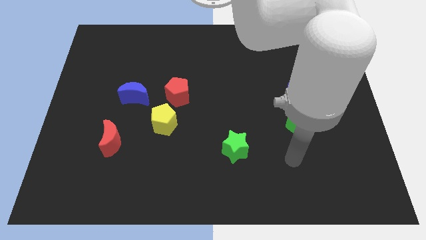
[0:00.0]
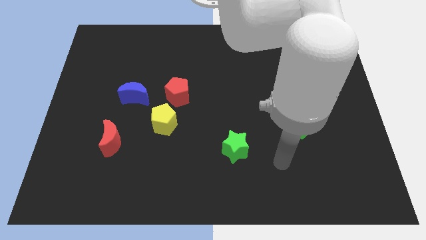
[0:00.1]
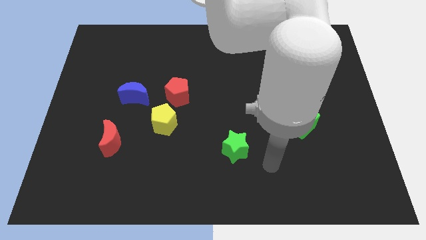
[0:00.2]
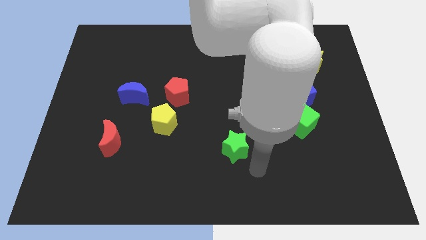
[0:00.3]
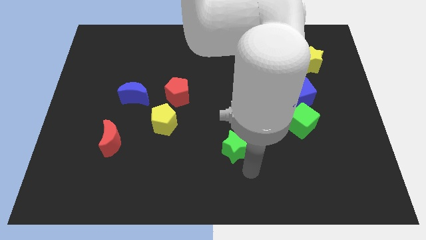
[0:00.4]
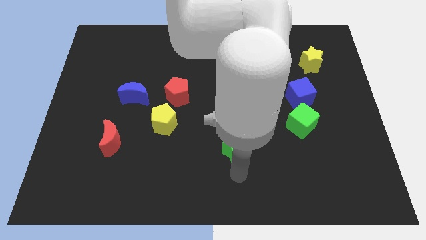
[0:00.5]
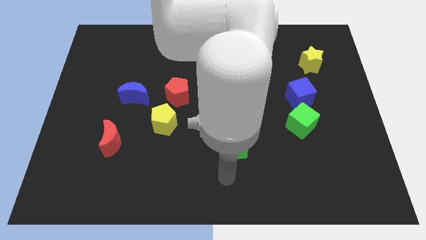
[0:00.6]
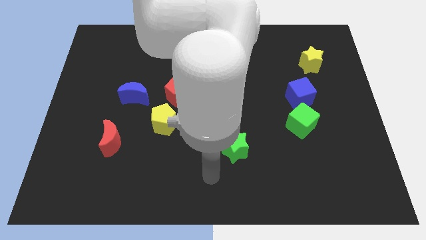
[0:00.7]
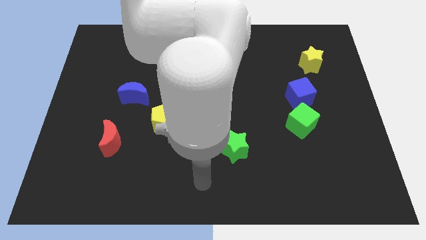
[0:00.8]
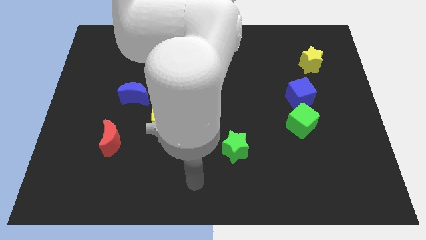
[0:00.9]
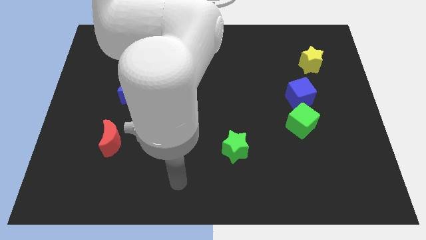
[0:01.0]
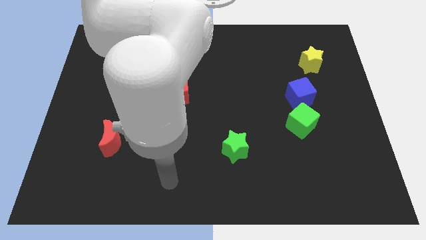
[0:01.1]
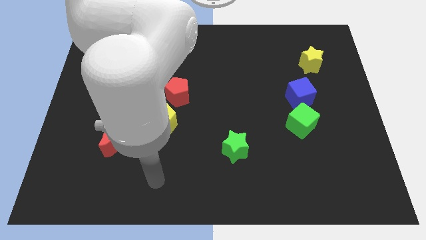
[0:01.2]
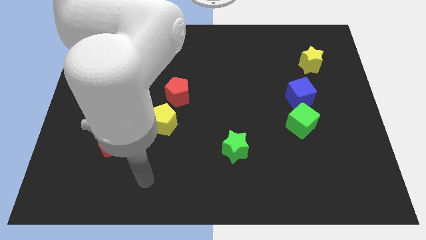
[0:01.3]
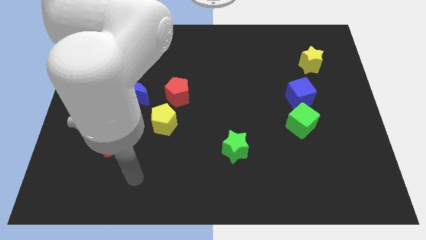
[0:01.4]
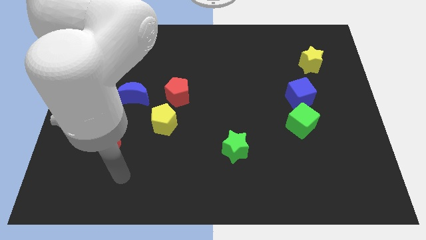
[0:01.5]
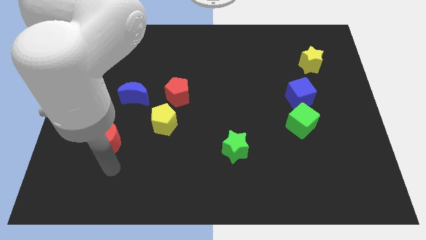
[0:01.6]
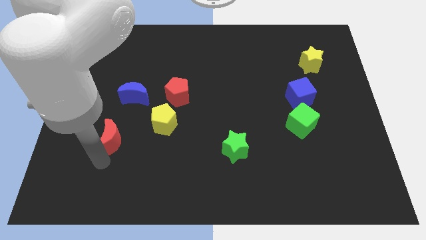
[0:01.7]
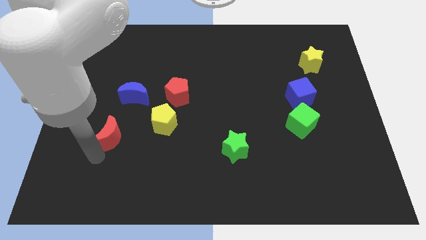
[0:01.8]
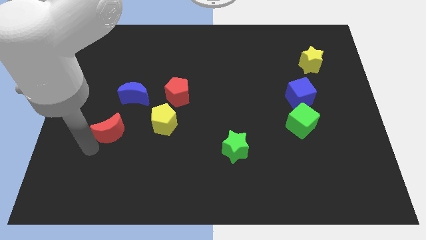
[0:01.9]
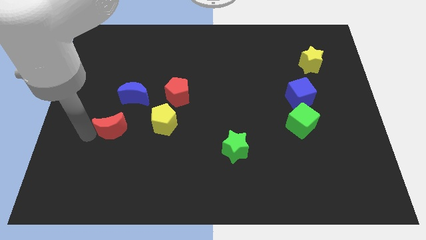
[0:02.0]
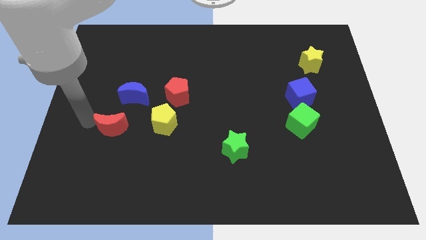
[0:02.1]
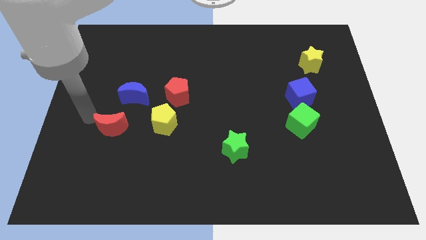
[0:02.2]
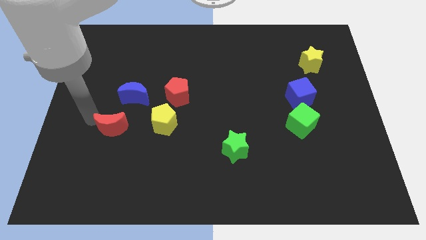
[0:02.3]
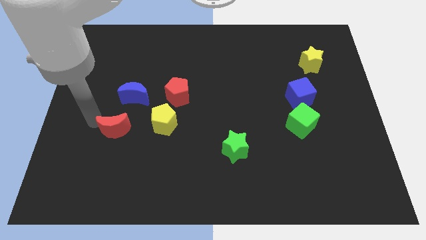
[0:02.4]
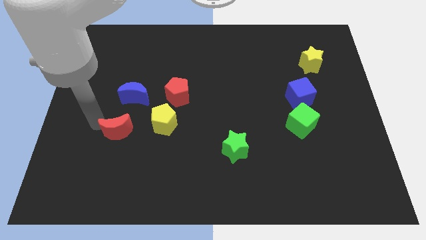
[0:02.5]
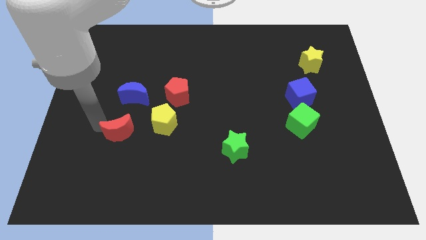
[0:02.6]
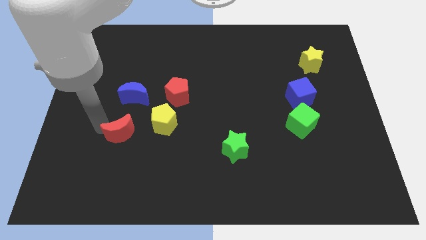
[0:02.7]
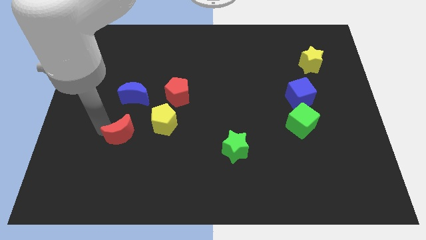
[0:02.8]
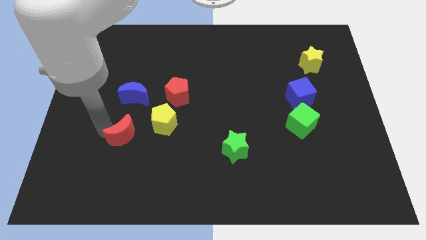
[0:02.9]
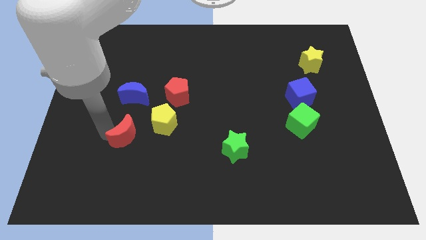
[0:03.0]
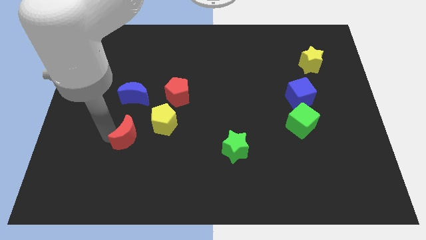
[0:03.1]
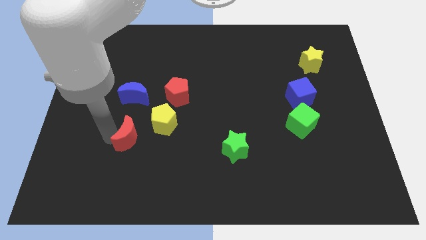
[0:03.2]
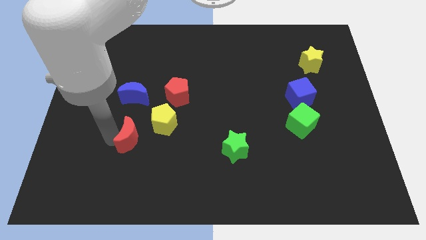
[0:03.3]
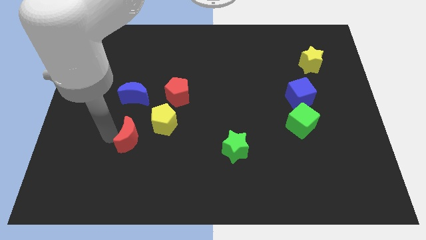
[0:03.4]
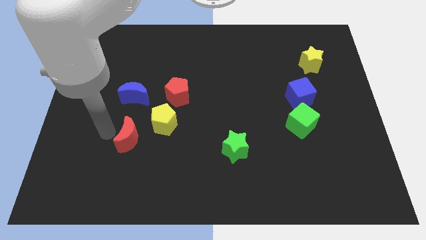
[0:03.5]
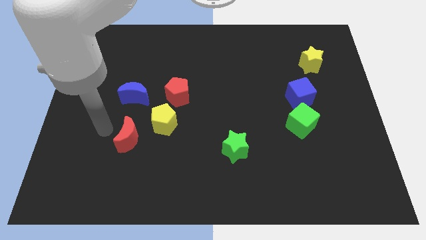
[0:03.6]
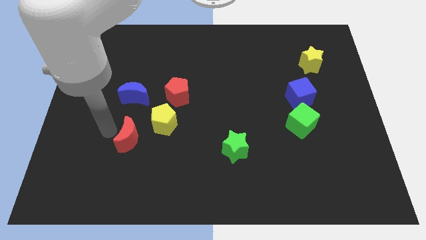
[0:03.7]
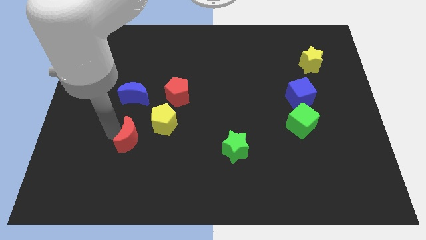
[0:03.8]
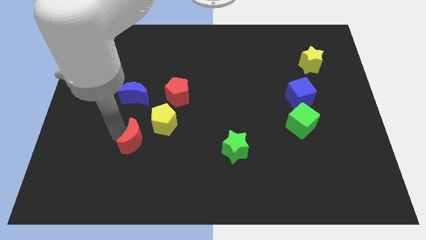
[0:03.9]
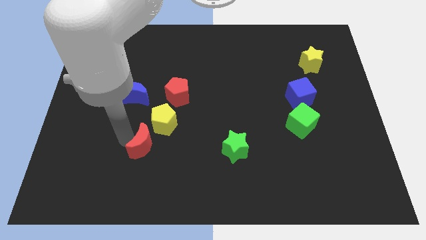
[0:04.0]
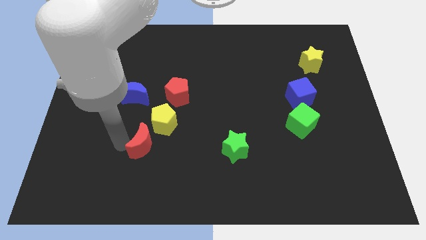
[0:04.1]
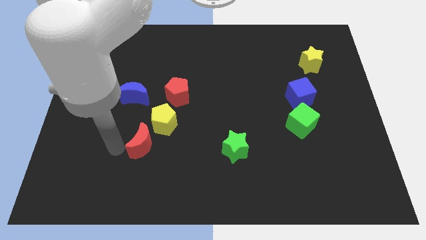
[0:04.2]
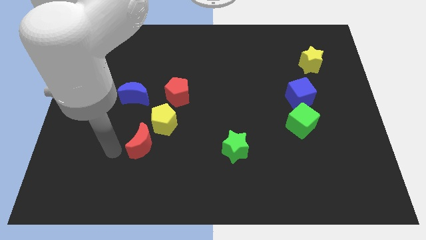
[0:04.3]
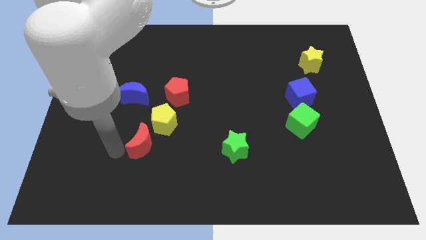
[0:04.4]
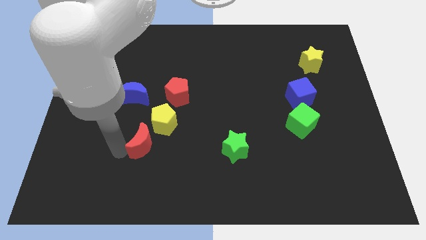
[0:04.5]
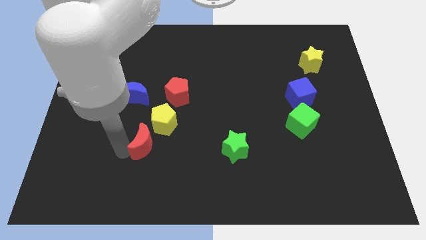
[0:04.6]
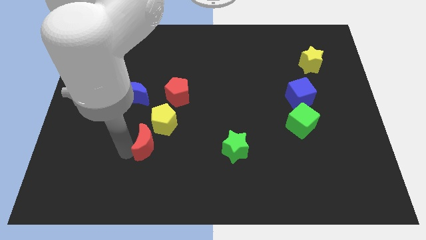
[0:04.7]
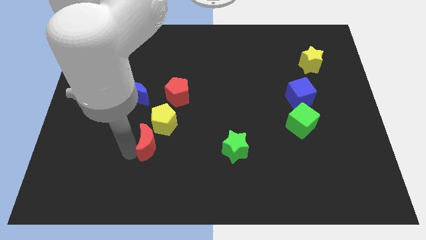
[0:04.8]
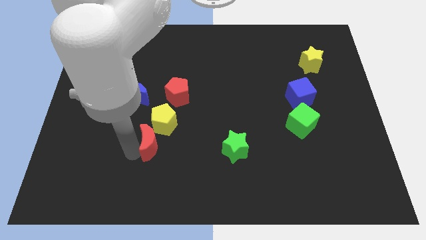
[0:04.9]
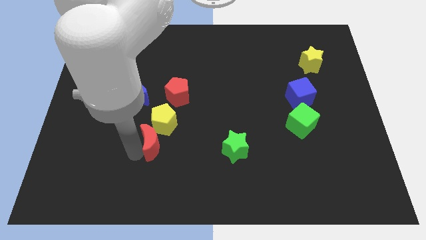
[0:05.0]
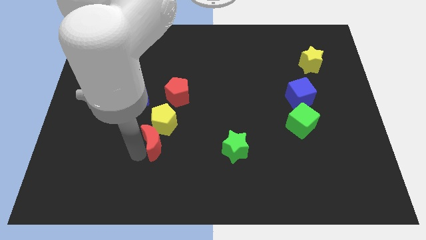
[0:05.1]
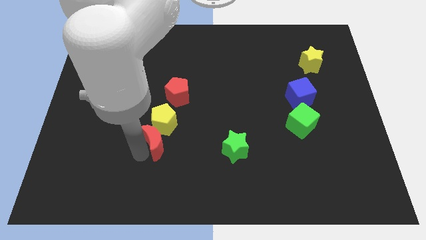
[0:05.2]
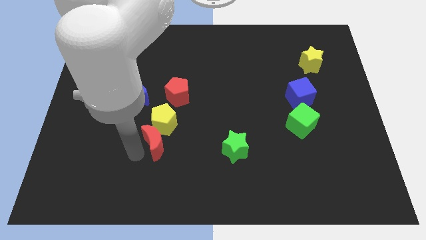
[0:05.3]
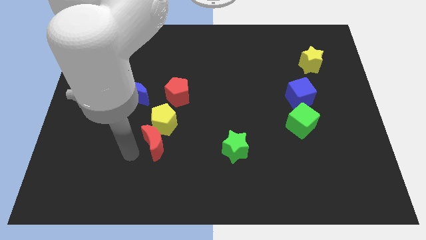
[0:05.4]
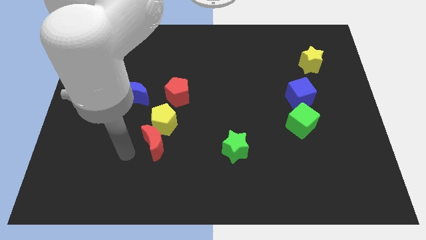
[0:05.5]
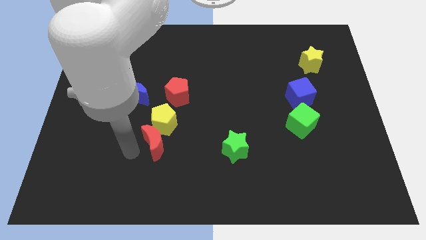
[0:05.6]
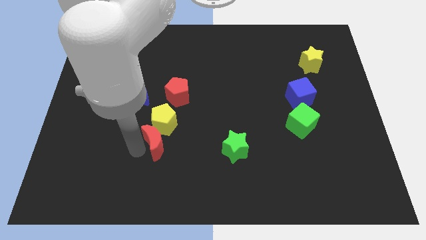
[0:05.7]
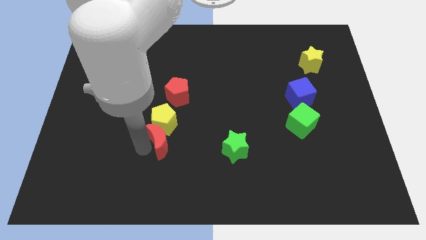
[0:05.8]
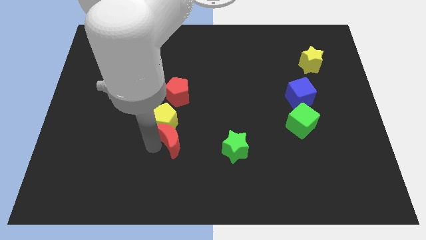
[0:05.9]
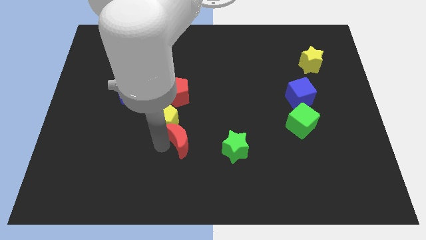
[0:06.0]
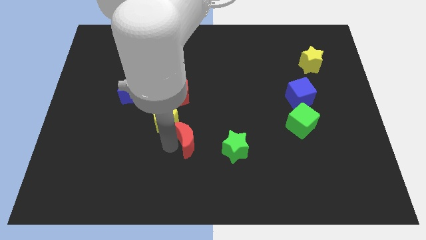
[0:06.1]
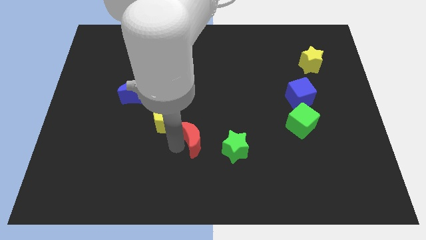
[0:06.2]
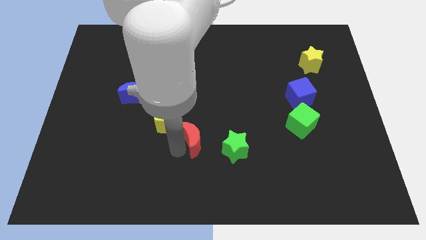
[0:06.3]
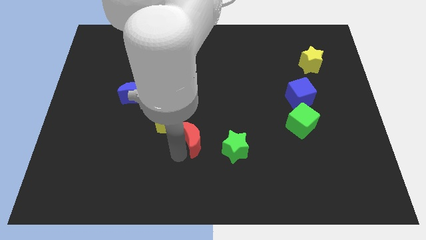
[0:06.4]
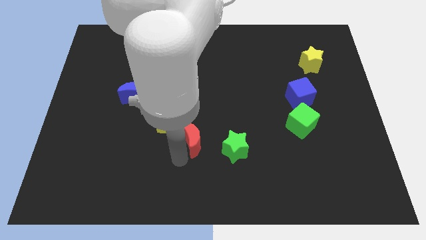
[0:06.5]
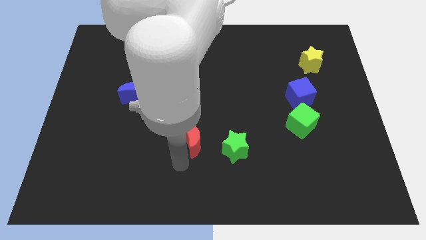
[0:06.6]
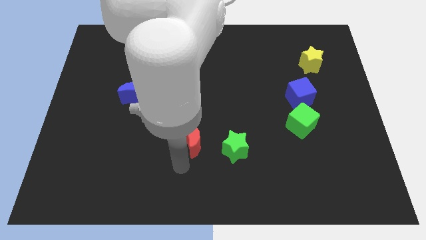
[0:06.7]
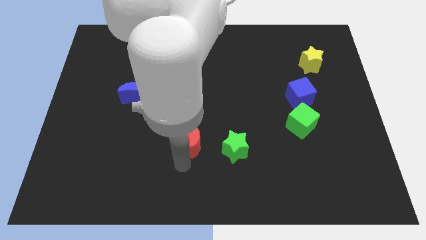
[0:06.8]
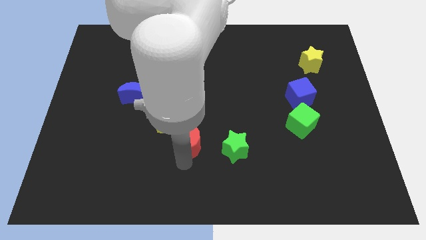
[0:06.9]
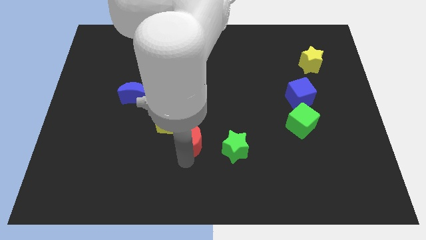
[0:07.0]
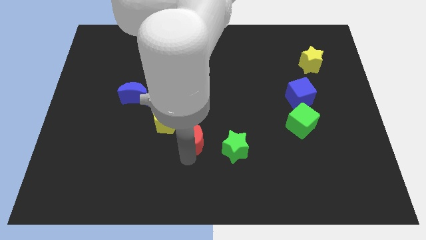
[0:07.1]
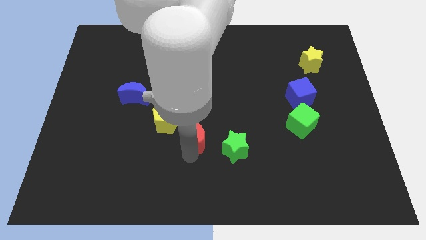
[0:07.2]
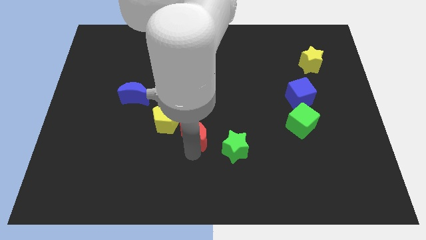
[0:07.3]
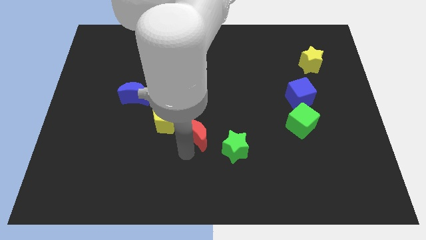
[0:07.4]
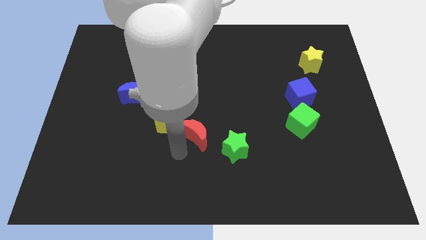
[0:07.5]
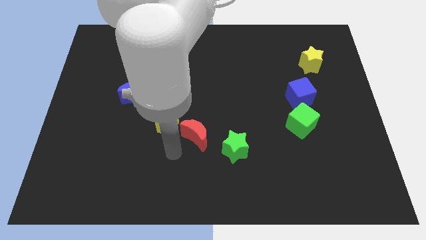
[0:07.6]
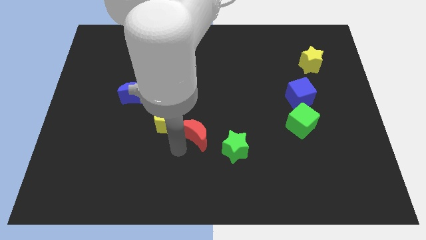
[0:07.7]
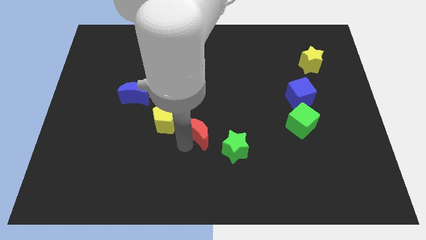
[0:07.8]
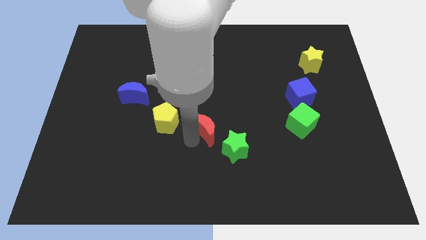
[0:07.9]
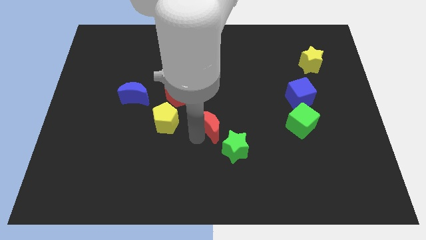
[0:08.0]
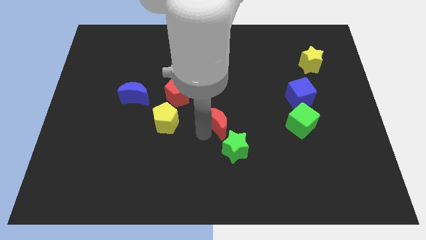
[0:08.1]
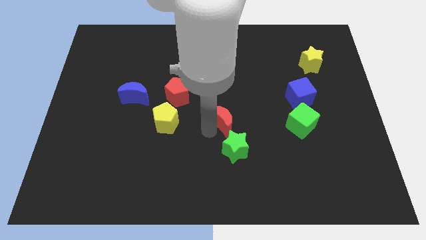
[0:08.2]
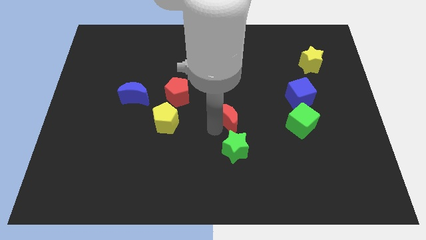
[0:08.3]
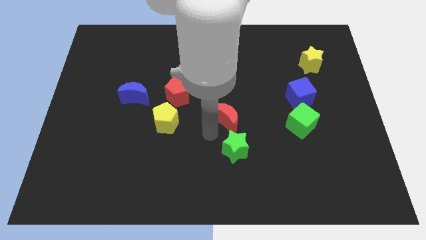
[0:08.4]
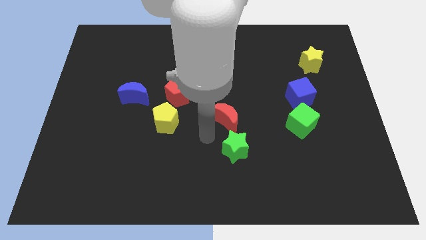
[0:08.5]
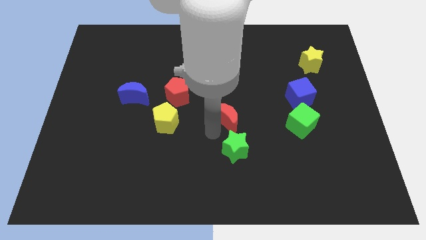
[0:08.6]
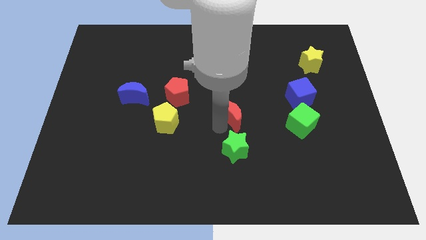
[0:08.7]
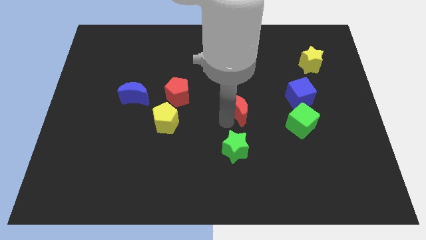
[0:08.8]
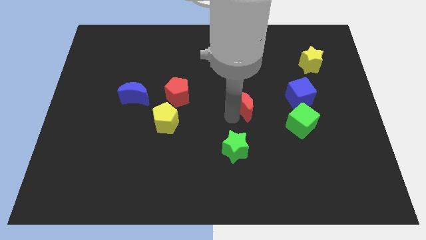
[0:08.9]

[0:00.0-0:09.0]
put the red moon left of the blue cube
